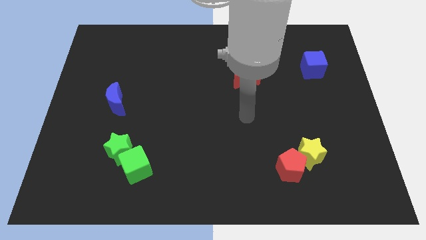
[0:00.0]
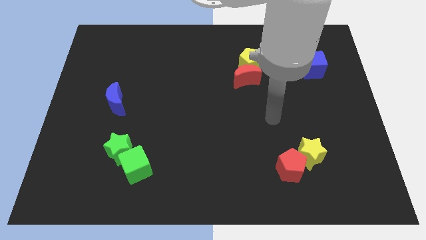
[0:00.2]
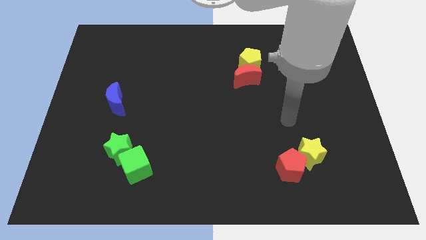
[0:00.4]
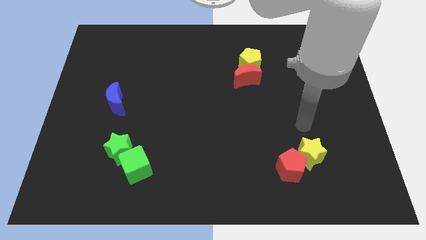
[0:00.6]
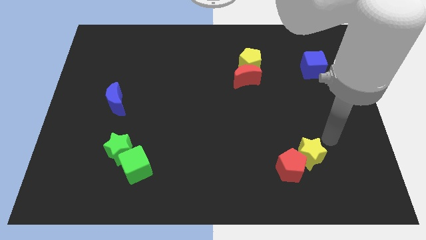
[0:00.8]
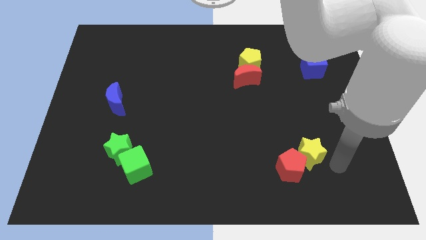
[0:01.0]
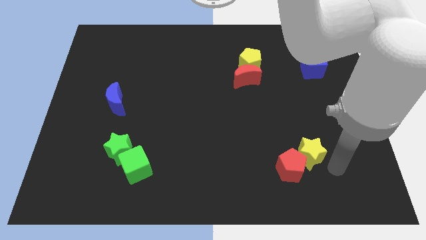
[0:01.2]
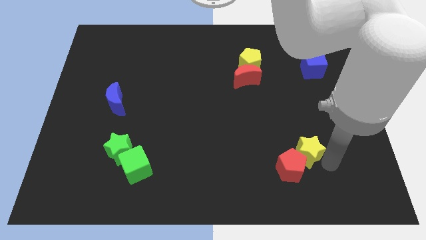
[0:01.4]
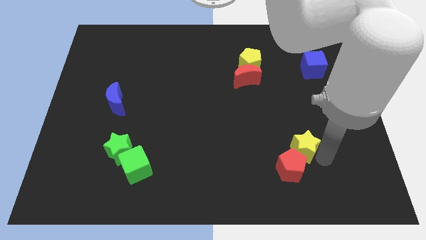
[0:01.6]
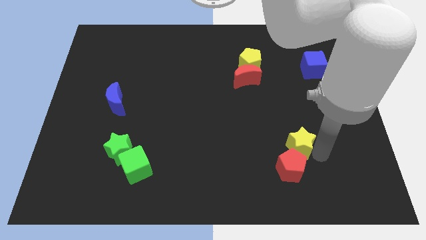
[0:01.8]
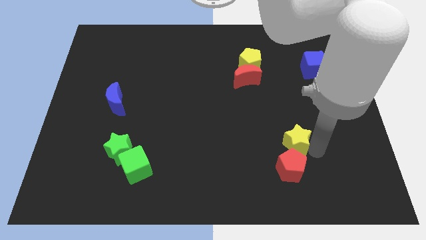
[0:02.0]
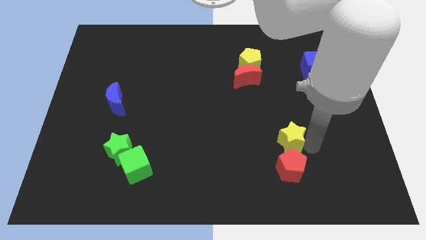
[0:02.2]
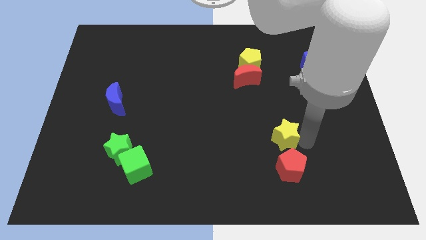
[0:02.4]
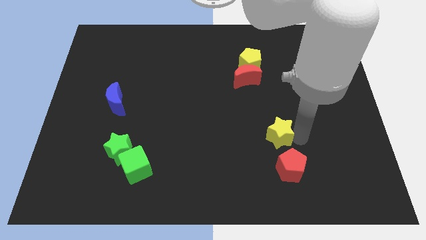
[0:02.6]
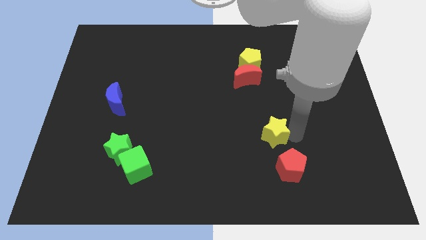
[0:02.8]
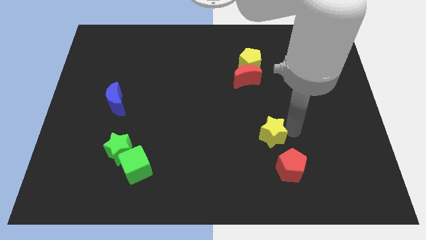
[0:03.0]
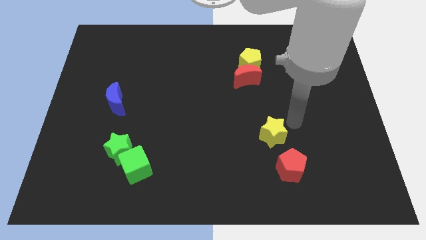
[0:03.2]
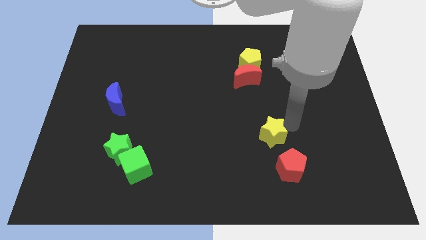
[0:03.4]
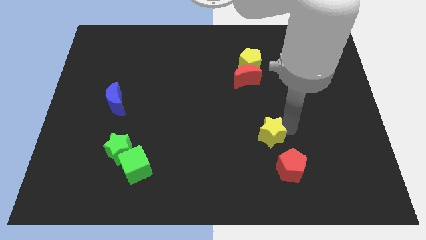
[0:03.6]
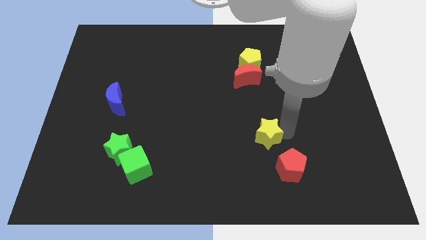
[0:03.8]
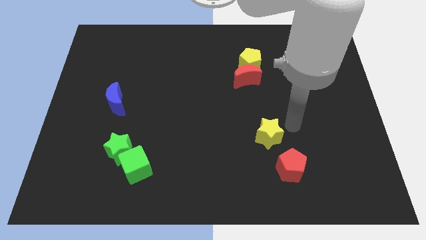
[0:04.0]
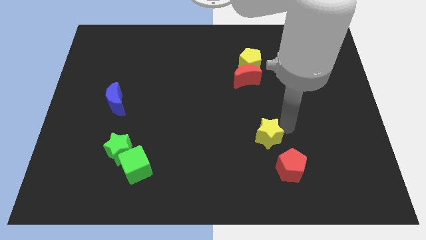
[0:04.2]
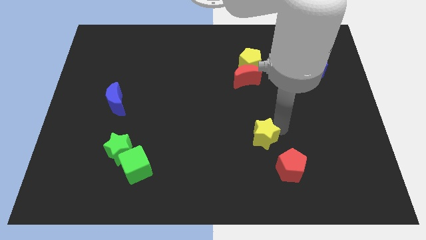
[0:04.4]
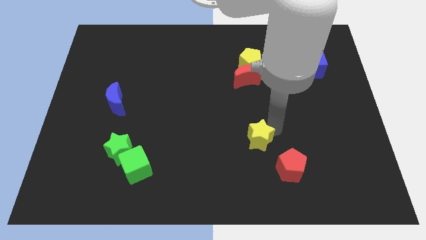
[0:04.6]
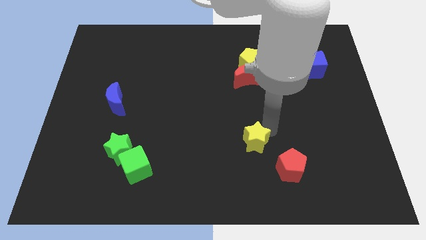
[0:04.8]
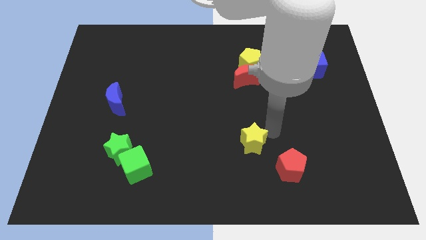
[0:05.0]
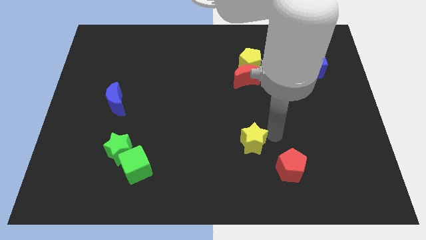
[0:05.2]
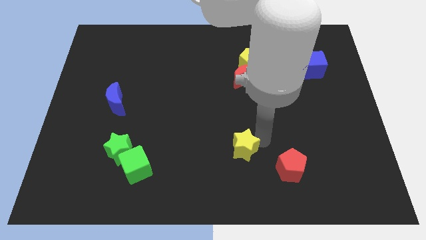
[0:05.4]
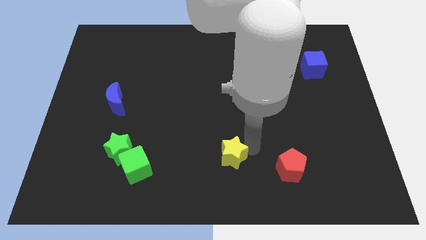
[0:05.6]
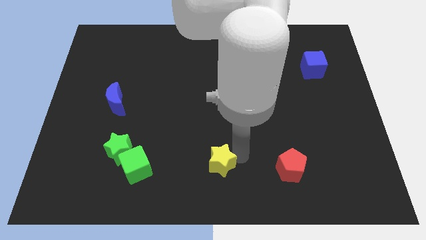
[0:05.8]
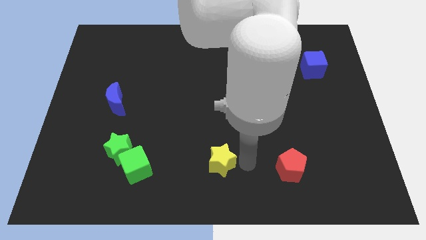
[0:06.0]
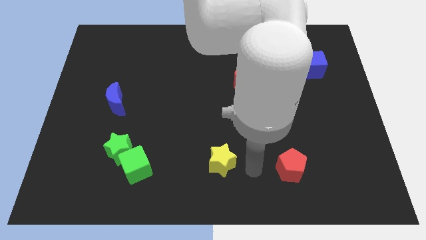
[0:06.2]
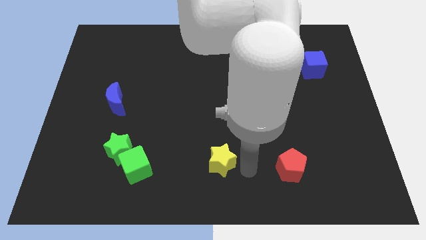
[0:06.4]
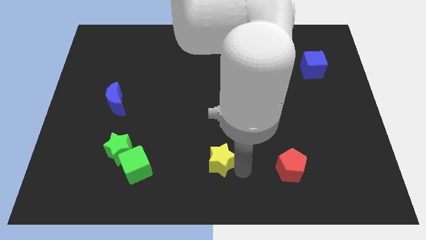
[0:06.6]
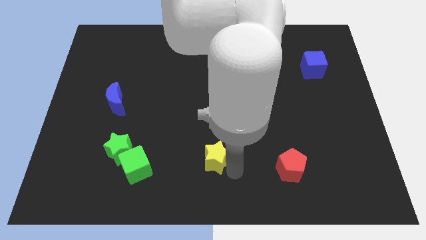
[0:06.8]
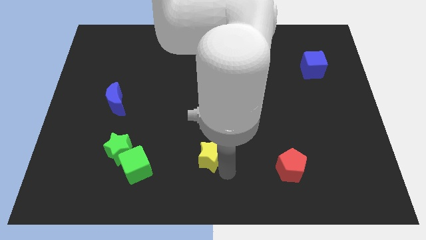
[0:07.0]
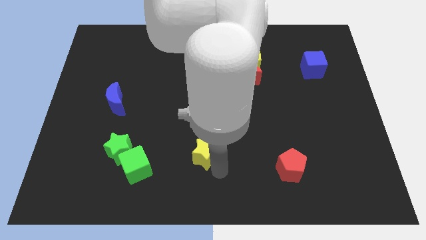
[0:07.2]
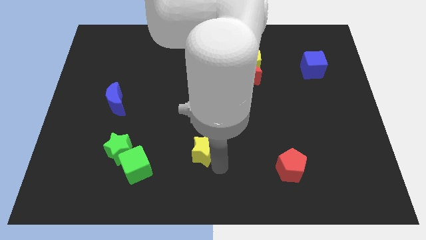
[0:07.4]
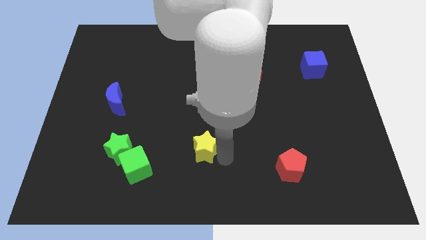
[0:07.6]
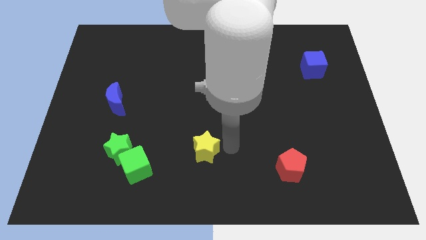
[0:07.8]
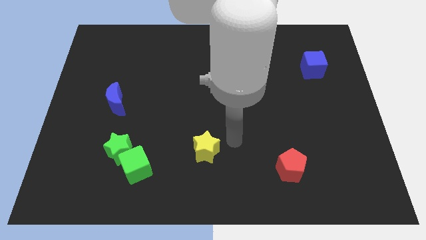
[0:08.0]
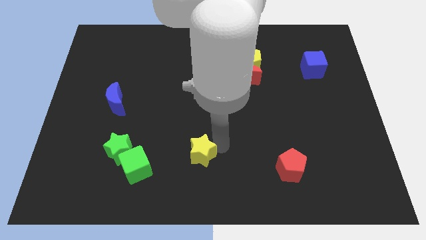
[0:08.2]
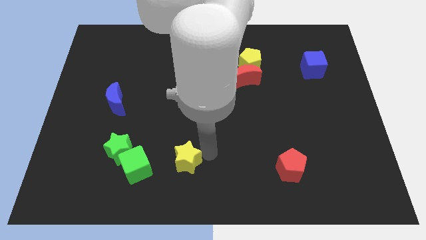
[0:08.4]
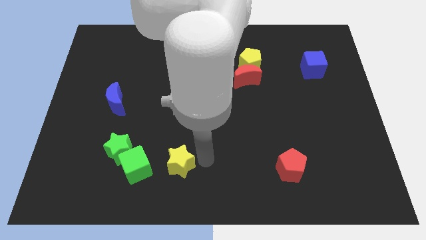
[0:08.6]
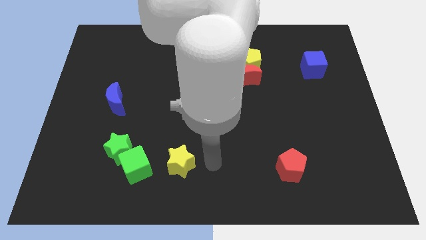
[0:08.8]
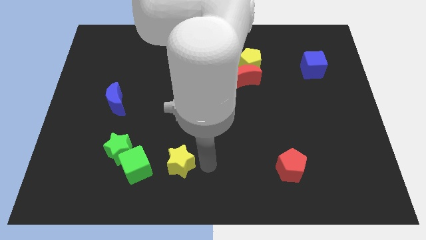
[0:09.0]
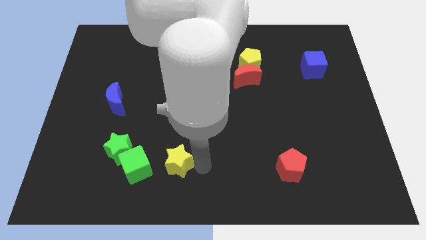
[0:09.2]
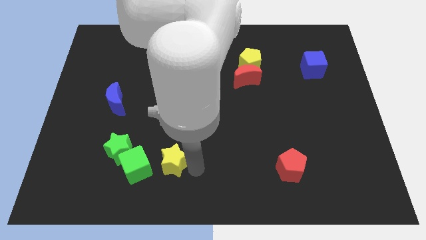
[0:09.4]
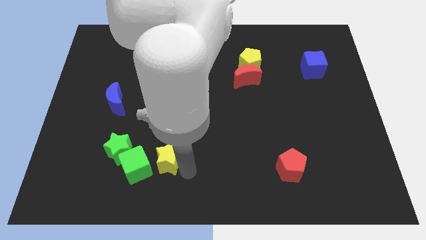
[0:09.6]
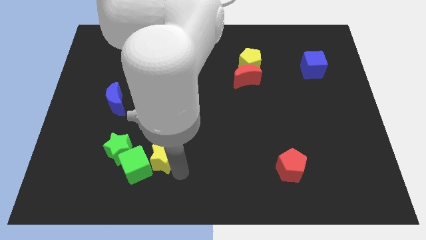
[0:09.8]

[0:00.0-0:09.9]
move the yellow star towards the green cube

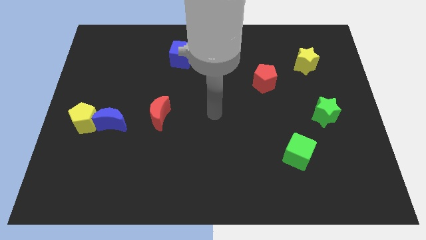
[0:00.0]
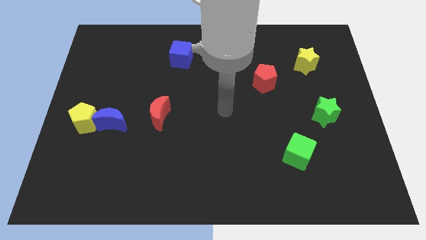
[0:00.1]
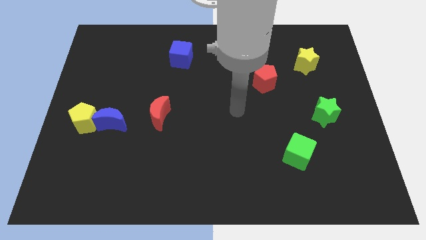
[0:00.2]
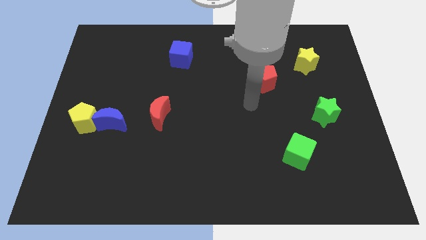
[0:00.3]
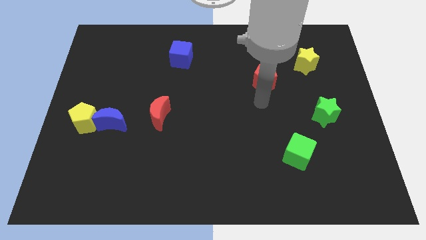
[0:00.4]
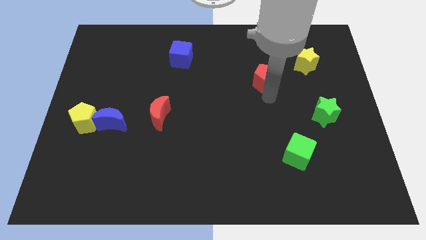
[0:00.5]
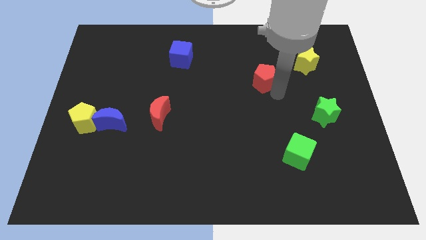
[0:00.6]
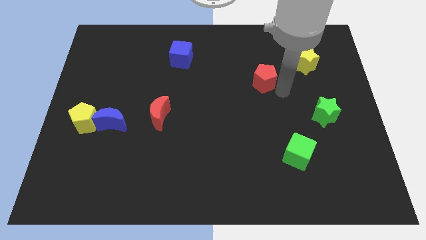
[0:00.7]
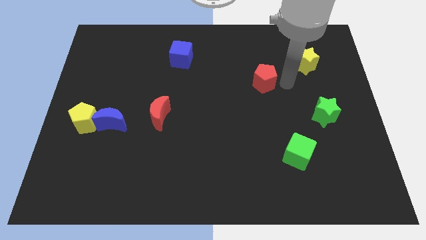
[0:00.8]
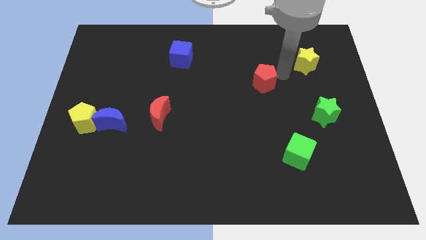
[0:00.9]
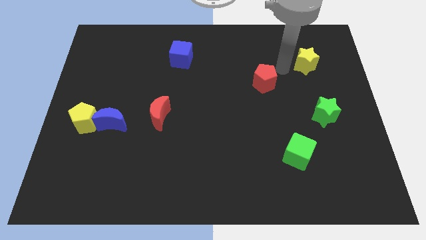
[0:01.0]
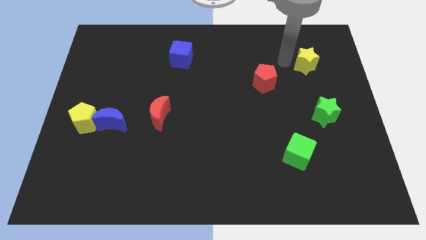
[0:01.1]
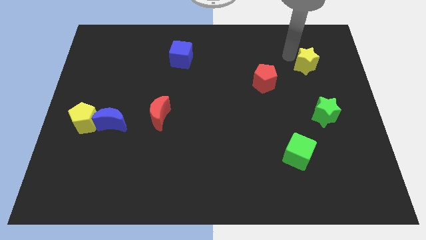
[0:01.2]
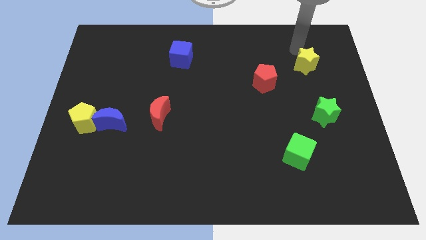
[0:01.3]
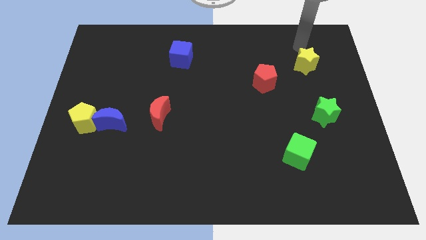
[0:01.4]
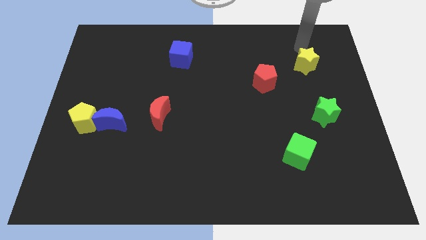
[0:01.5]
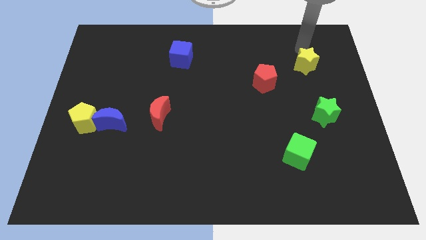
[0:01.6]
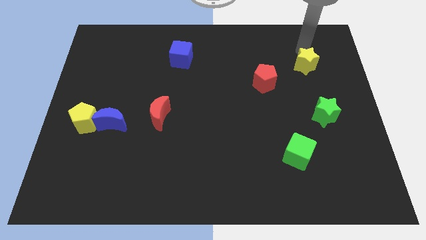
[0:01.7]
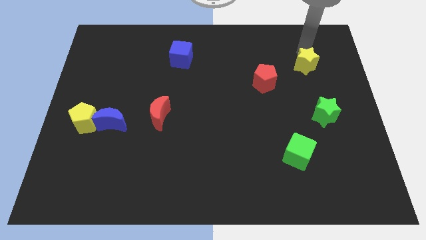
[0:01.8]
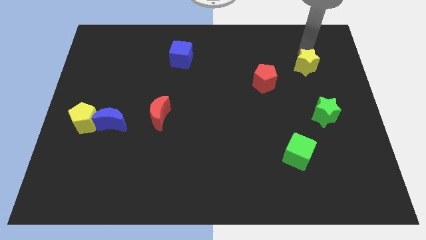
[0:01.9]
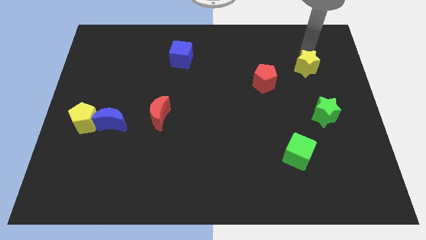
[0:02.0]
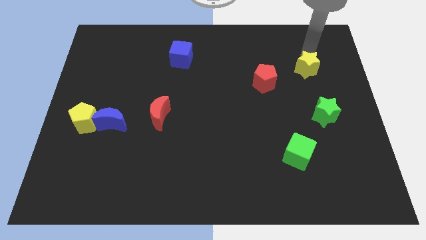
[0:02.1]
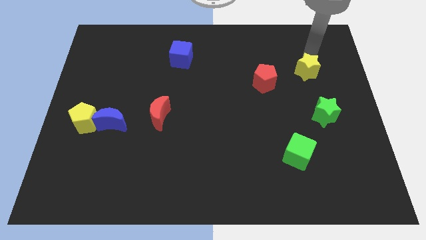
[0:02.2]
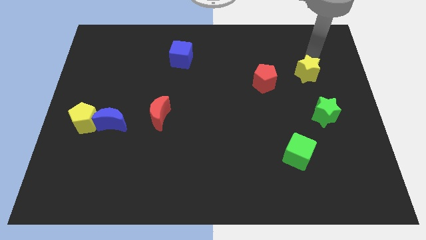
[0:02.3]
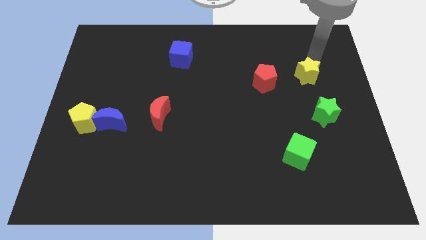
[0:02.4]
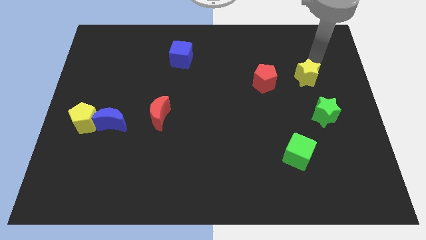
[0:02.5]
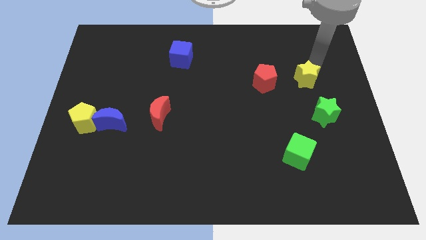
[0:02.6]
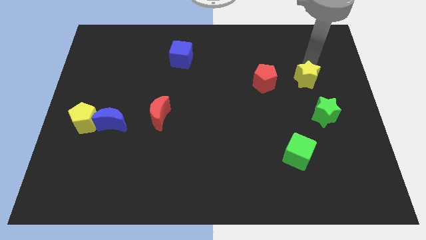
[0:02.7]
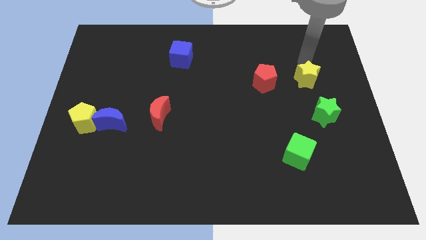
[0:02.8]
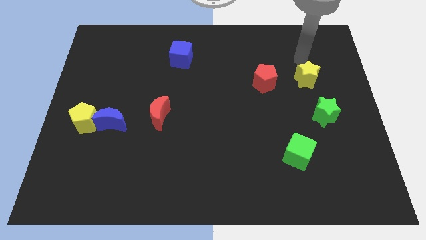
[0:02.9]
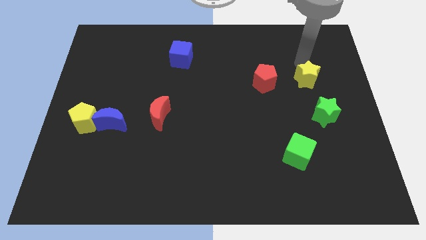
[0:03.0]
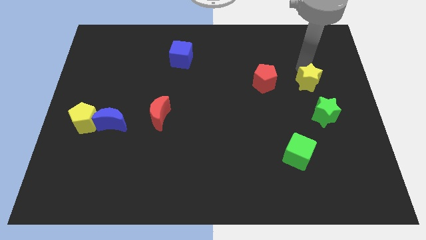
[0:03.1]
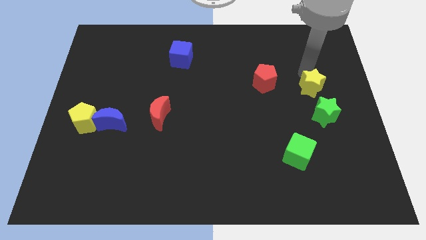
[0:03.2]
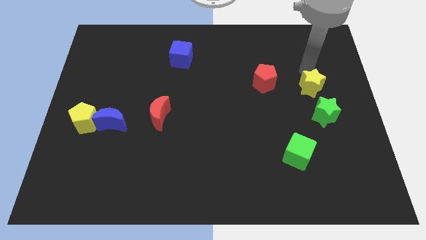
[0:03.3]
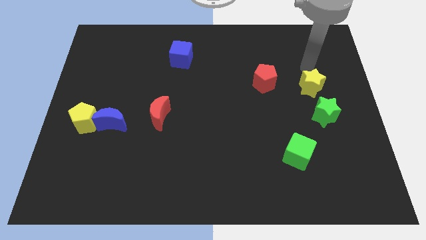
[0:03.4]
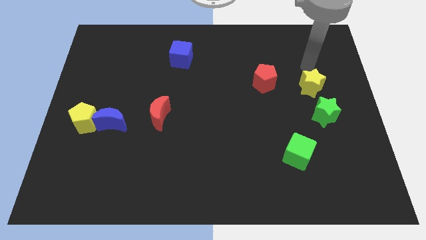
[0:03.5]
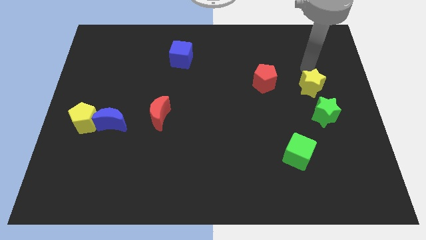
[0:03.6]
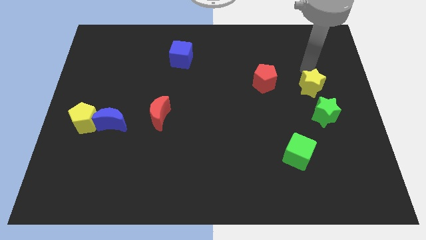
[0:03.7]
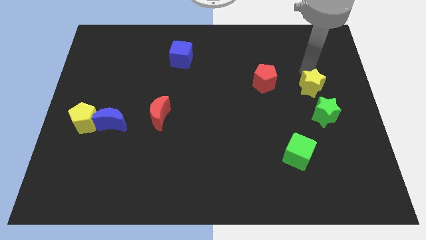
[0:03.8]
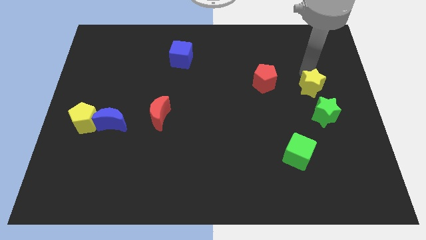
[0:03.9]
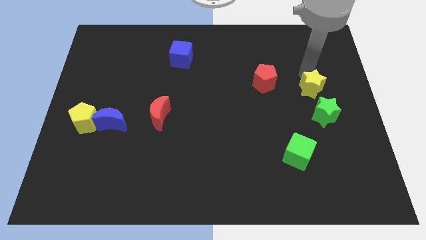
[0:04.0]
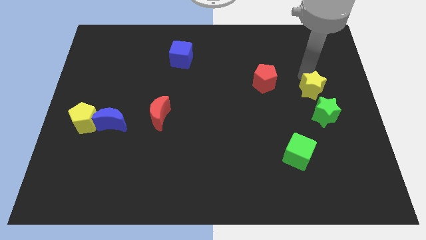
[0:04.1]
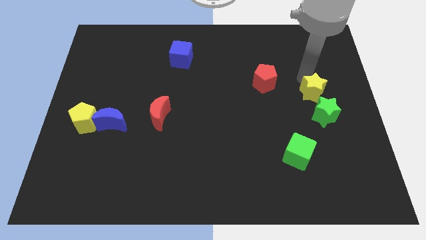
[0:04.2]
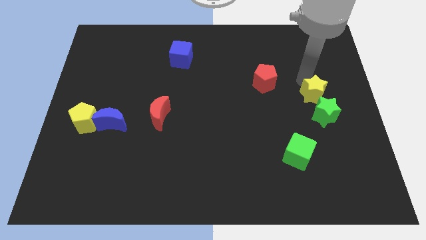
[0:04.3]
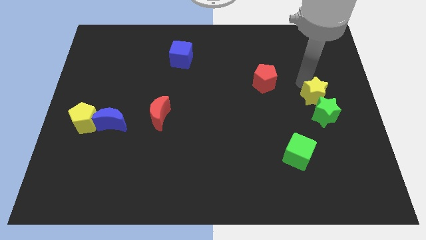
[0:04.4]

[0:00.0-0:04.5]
slide the yellow star to the green star
